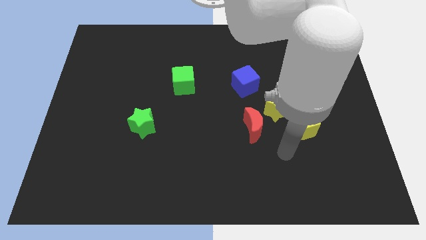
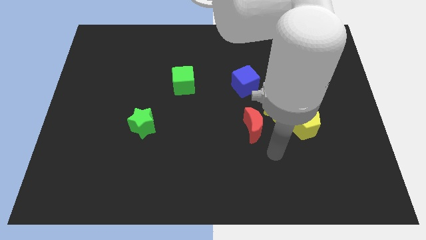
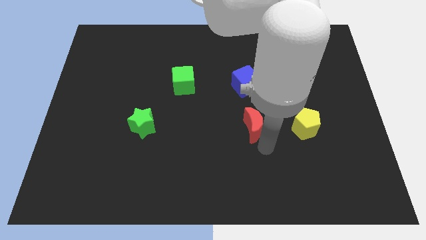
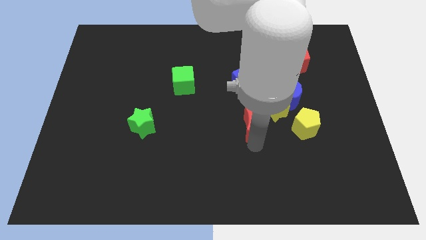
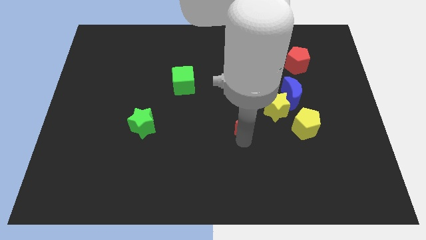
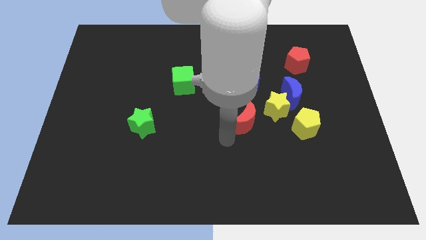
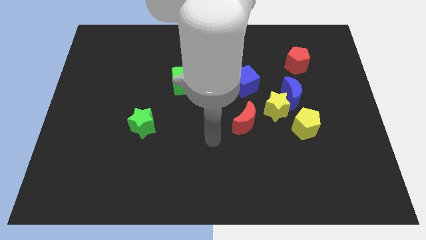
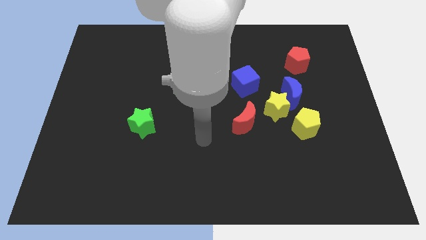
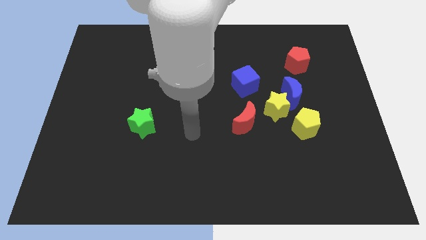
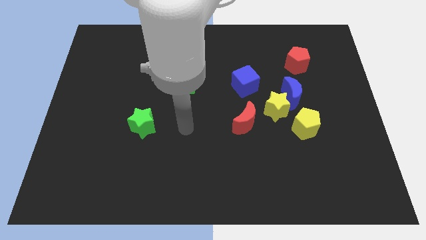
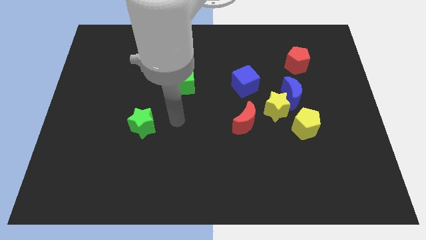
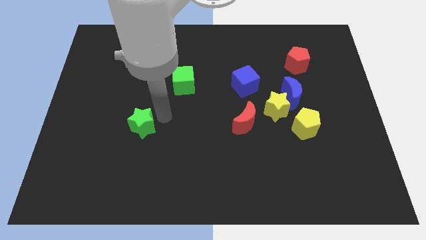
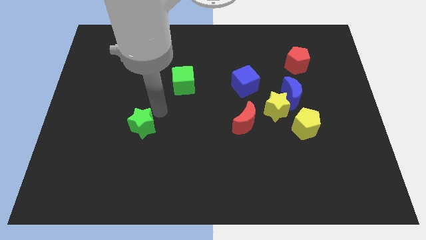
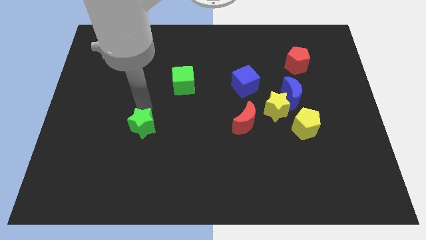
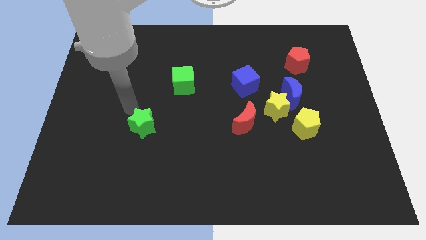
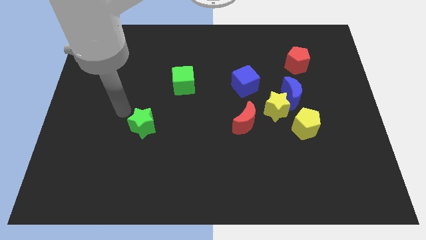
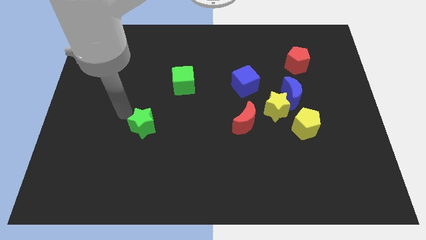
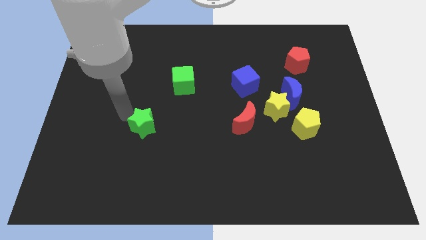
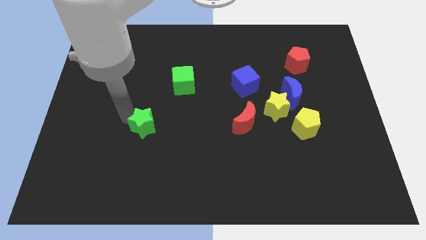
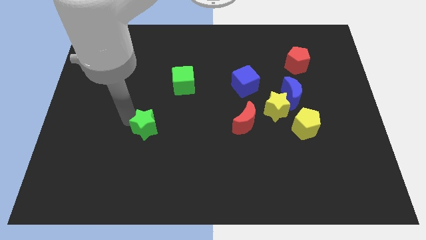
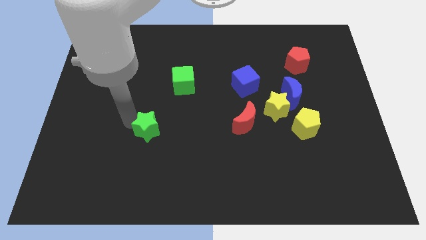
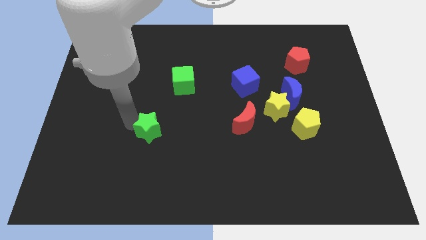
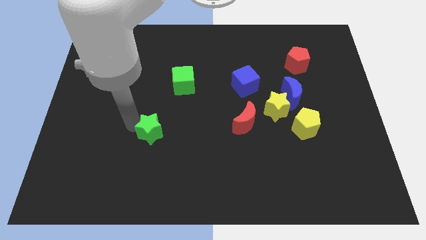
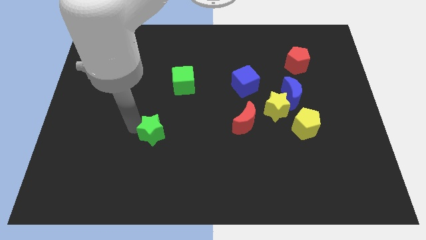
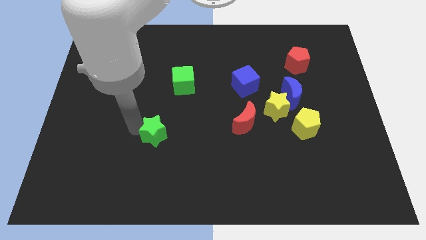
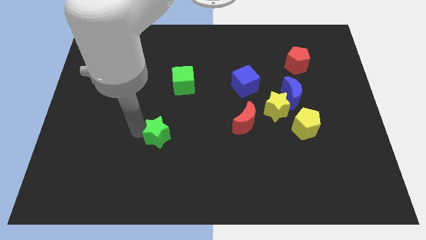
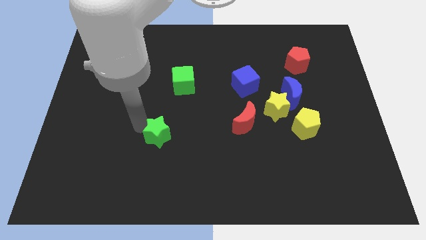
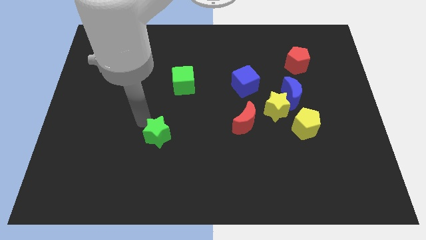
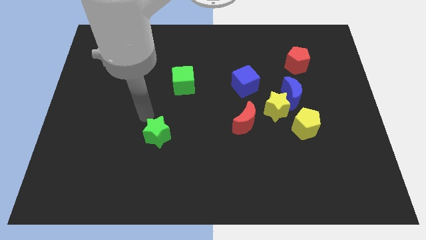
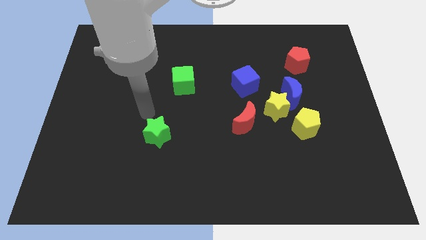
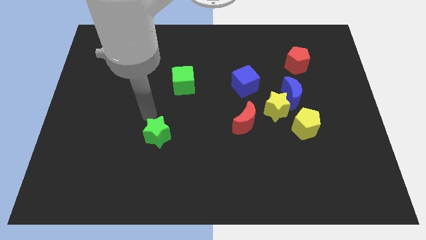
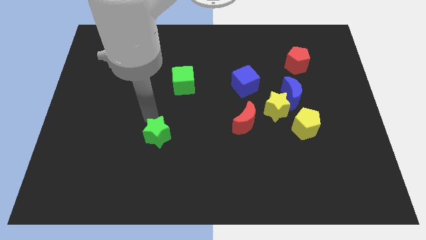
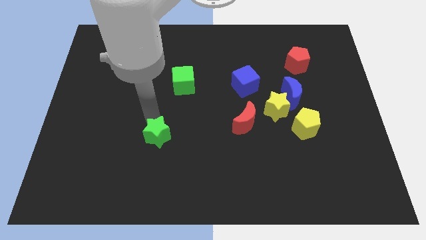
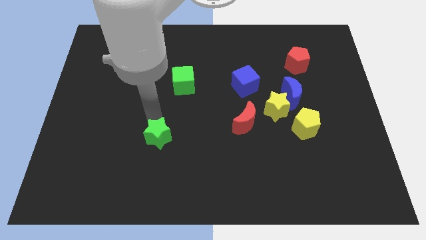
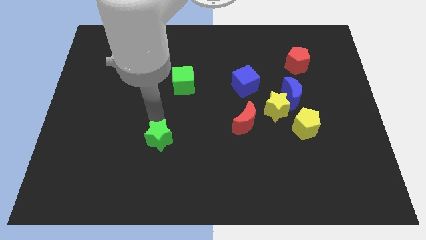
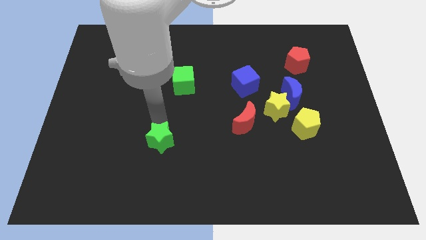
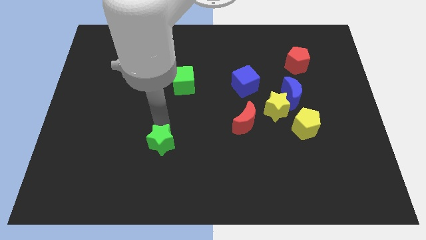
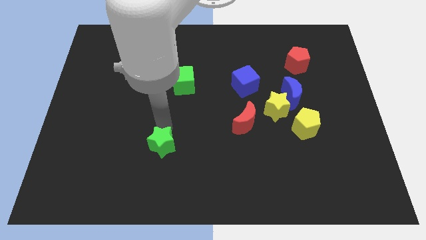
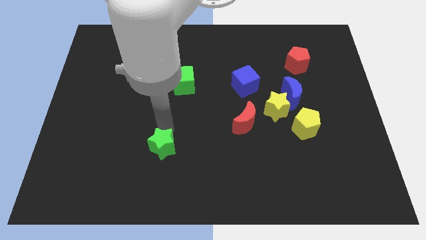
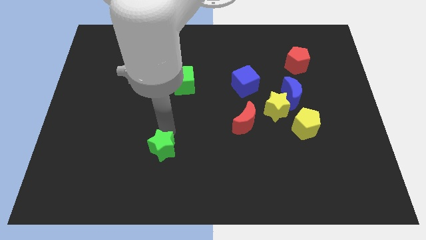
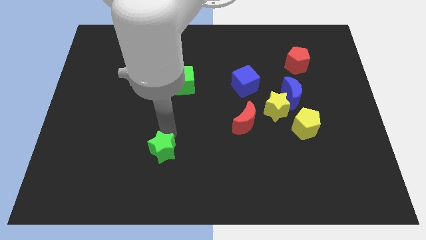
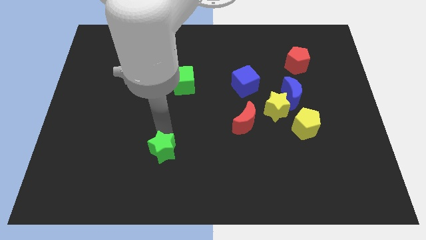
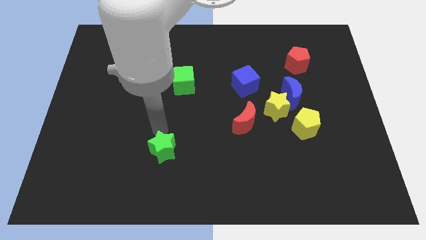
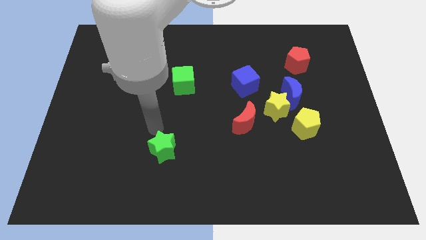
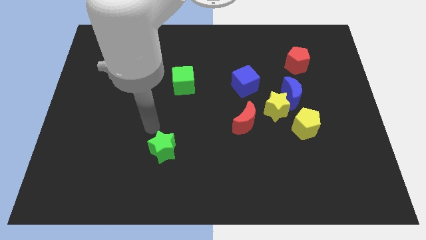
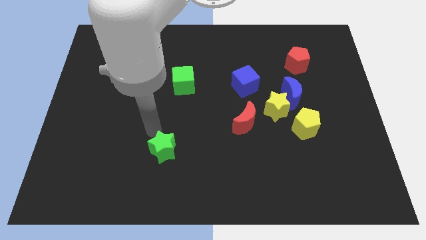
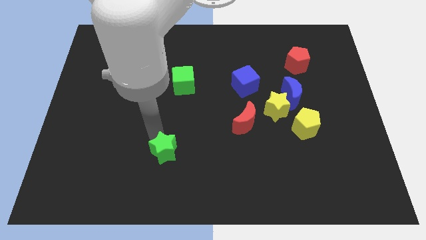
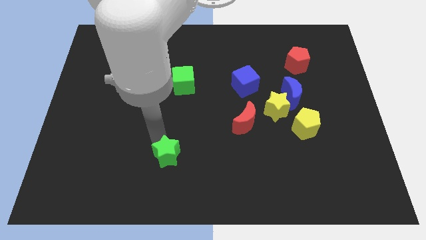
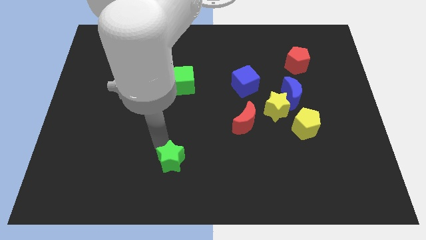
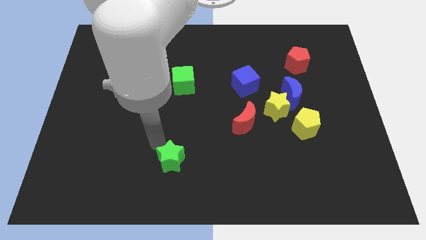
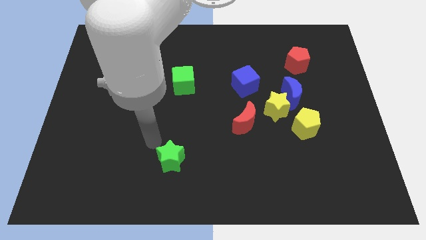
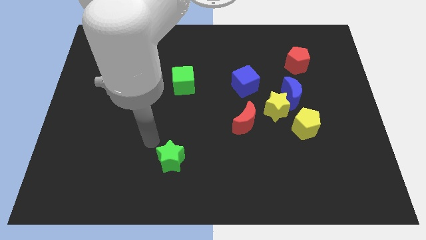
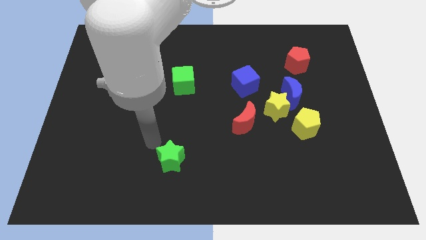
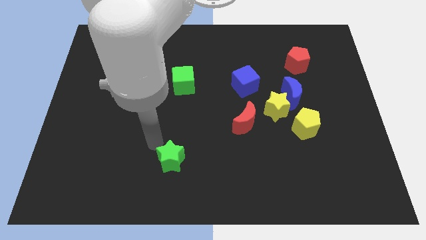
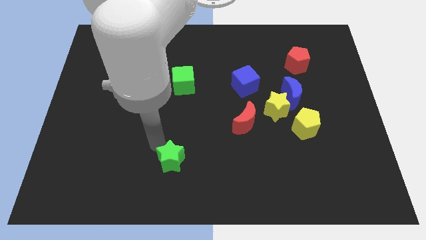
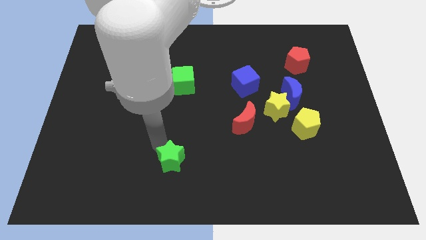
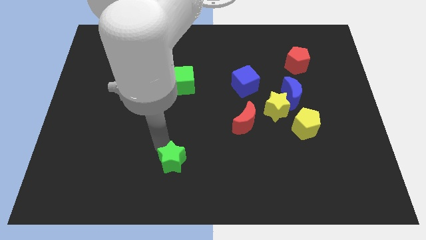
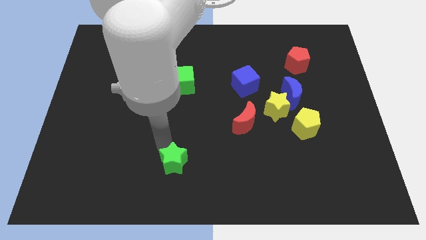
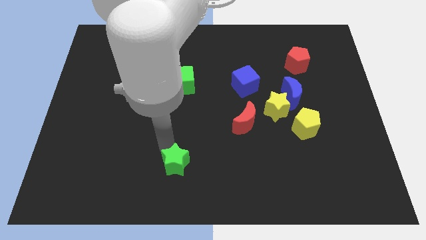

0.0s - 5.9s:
move the green star to the bottom side

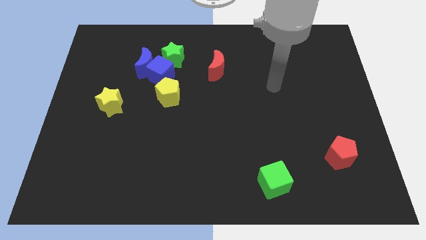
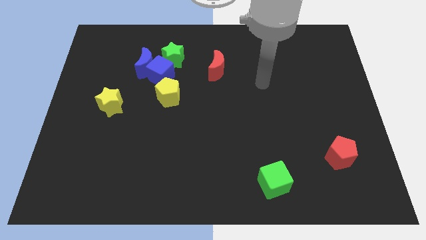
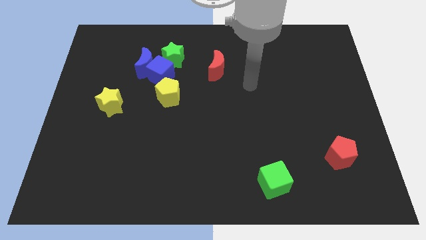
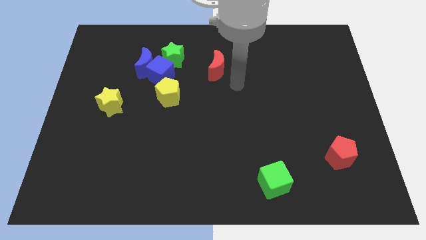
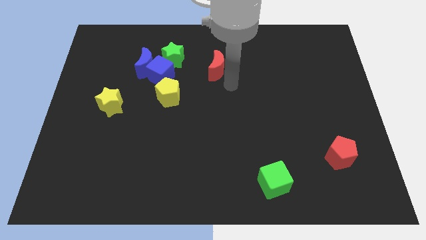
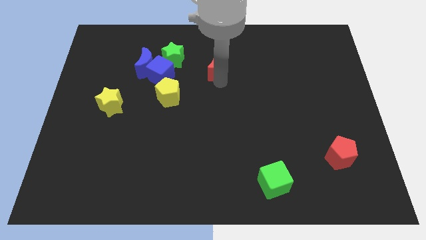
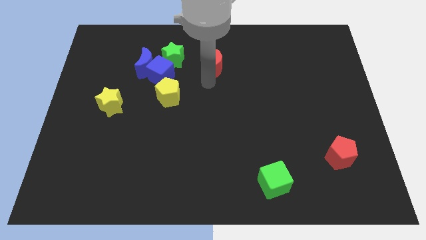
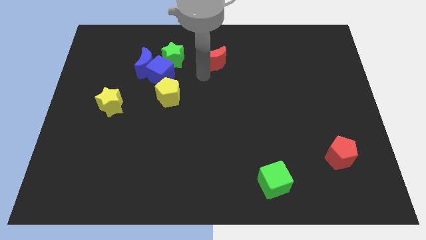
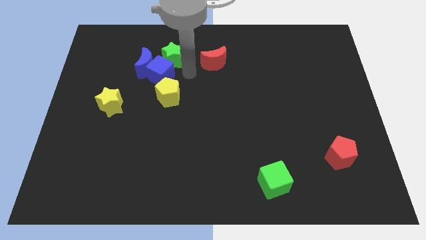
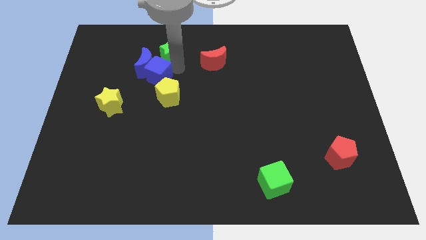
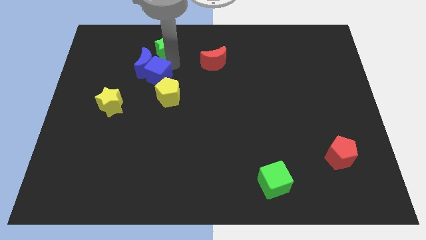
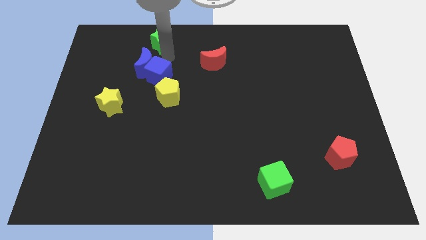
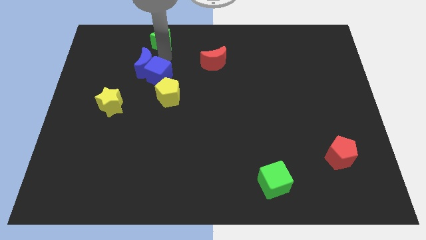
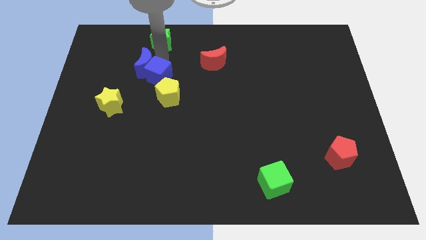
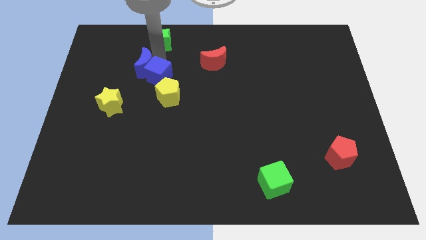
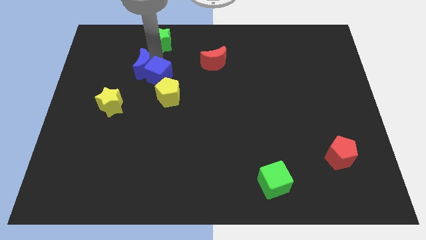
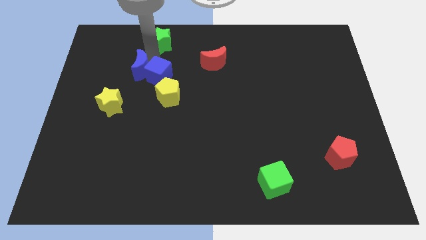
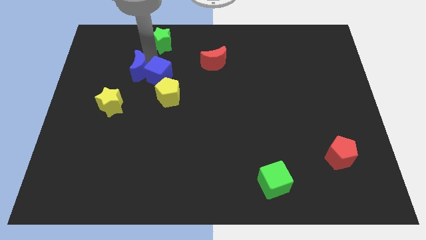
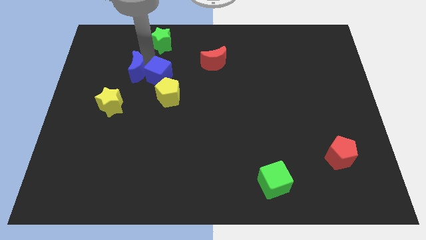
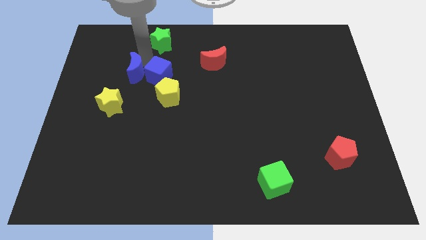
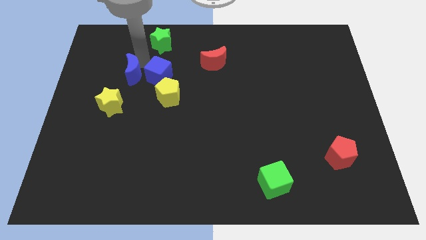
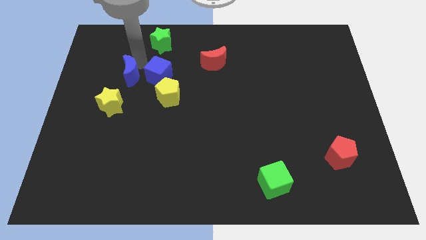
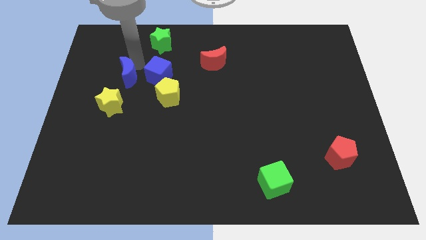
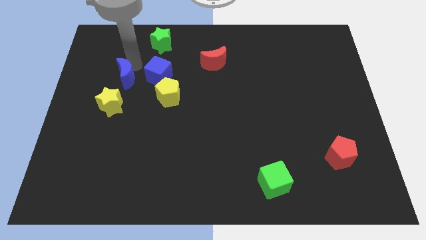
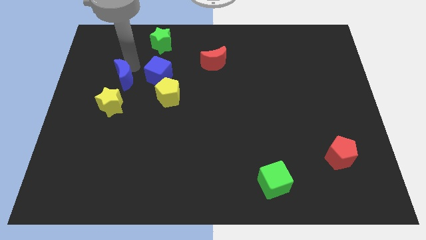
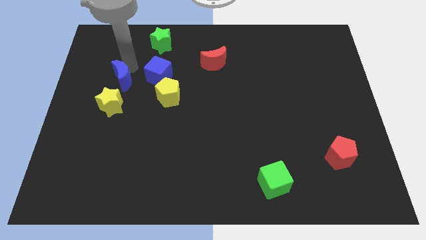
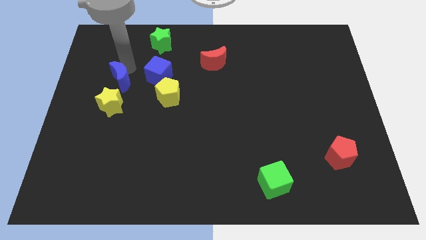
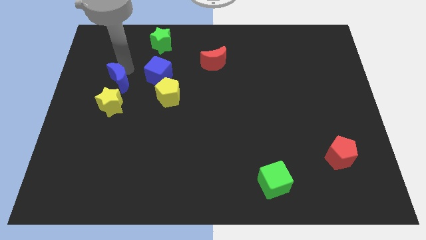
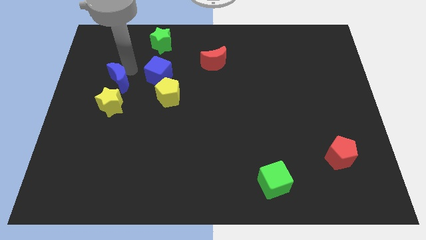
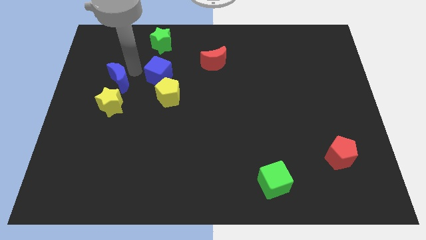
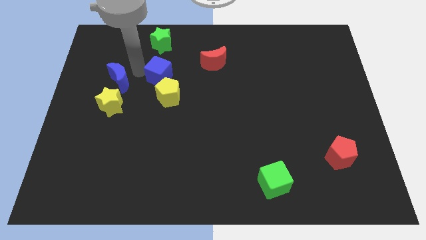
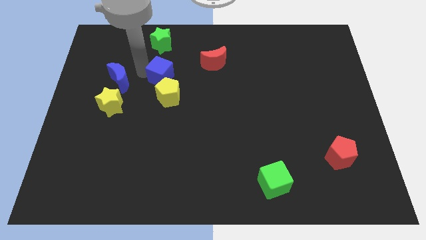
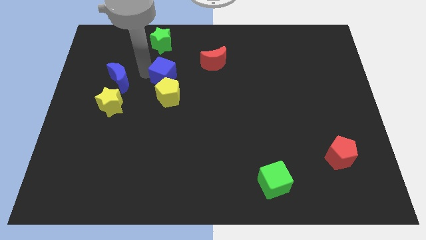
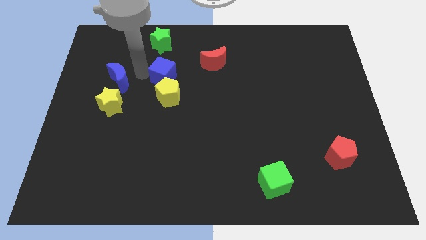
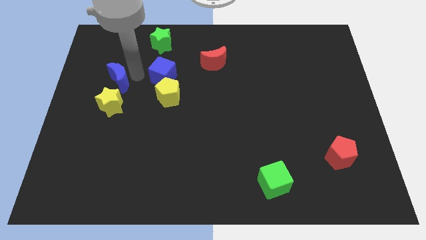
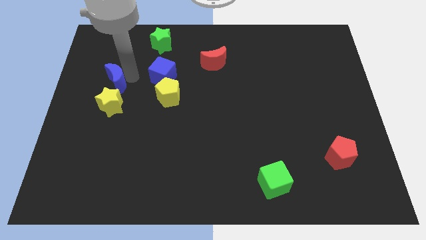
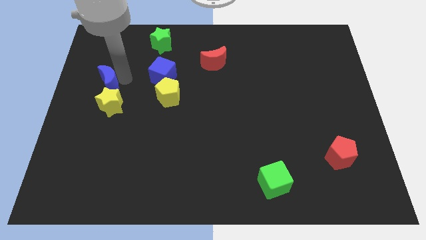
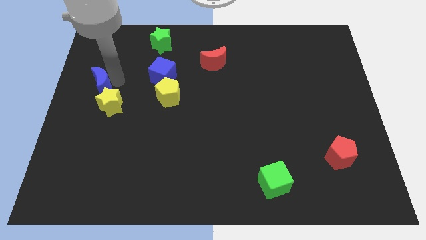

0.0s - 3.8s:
push the blue moon to the center left
